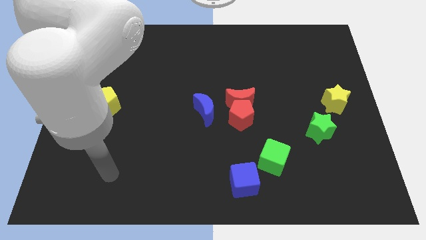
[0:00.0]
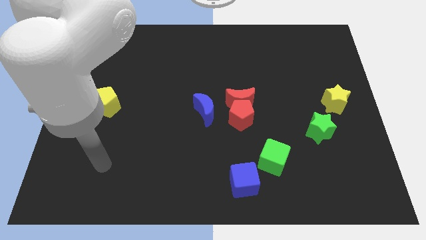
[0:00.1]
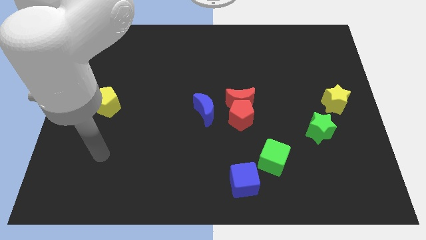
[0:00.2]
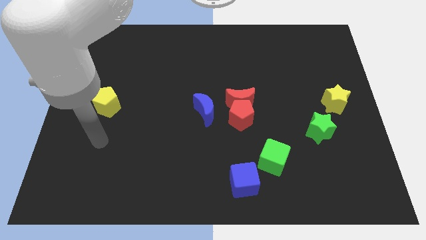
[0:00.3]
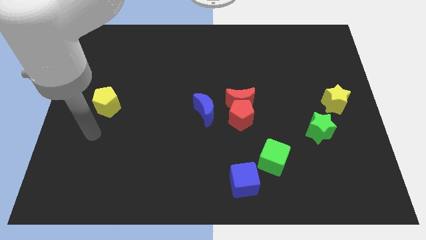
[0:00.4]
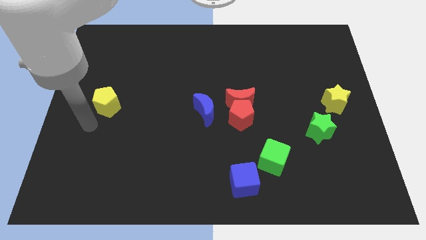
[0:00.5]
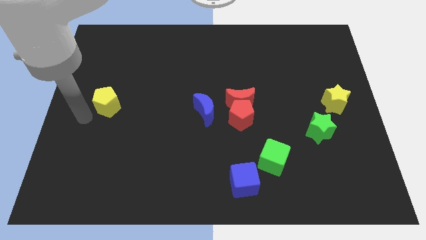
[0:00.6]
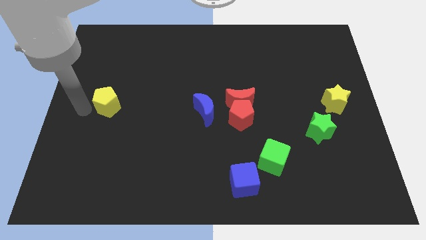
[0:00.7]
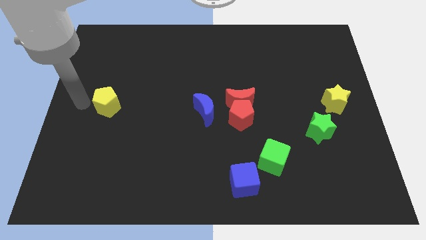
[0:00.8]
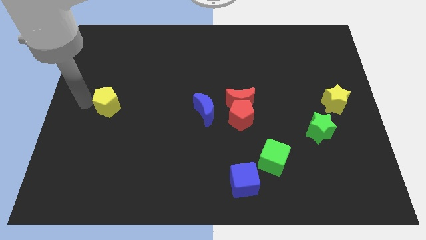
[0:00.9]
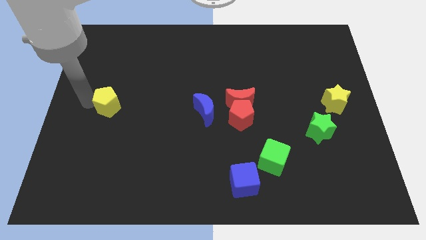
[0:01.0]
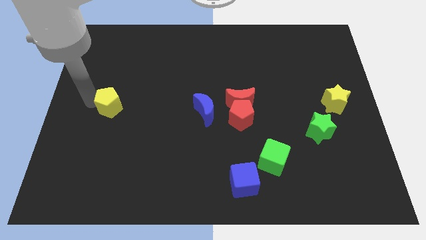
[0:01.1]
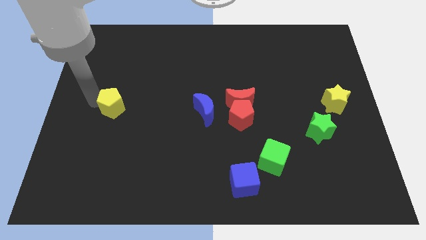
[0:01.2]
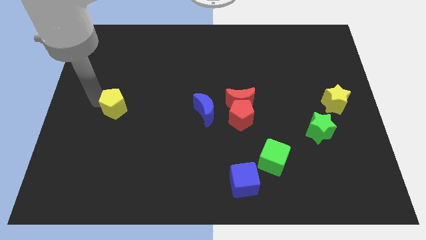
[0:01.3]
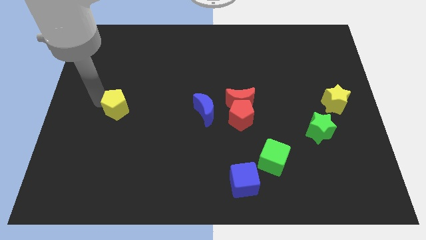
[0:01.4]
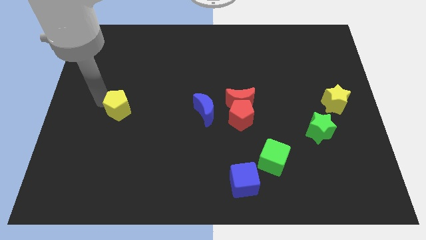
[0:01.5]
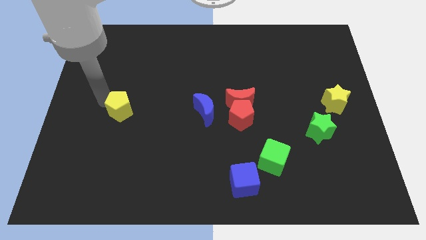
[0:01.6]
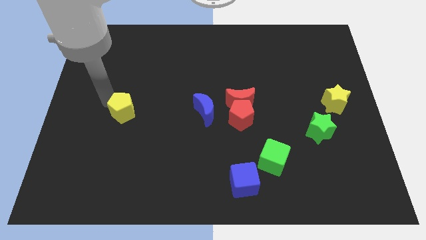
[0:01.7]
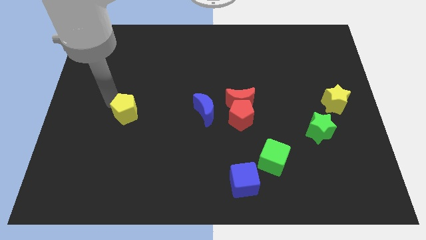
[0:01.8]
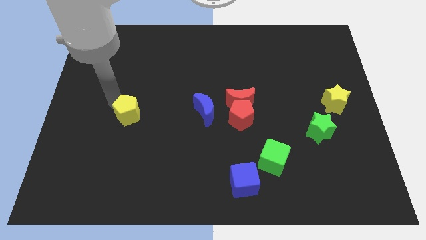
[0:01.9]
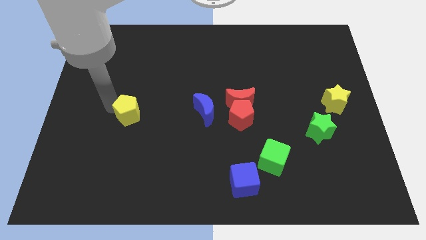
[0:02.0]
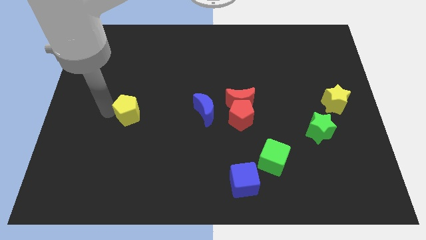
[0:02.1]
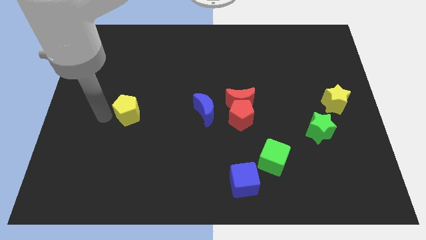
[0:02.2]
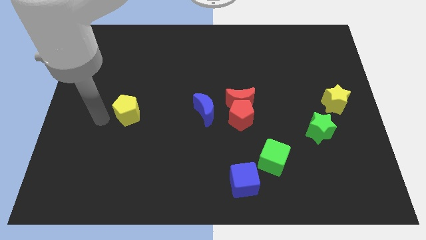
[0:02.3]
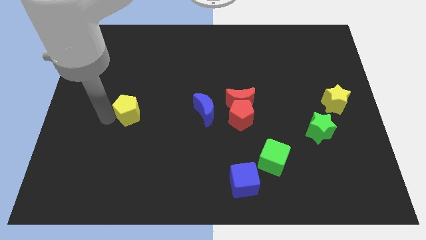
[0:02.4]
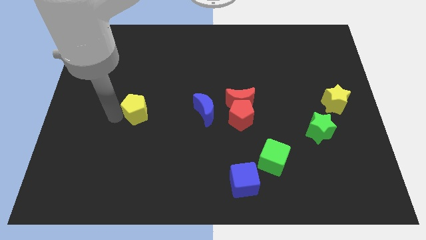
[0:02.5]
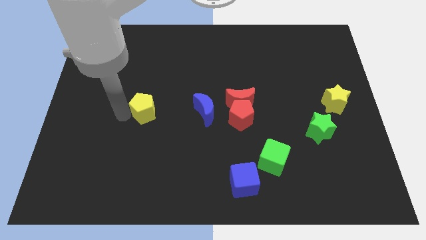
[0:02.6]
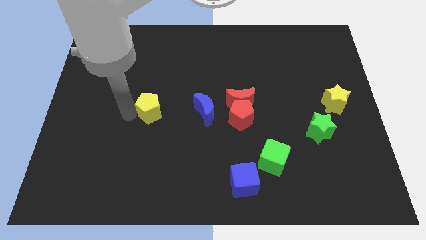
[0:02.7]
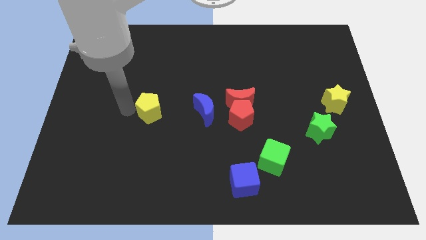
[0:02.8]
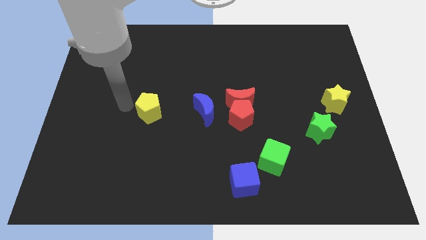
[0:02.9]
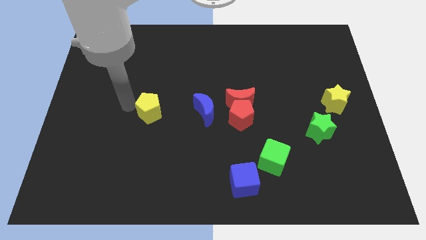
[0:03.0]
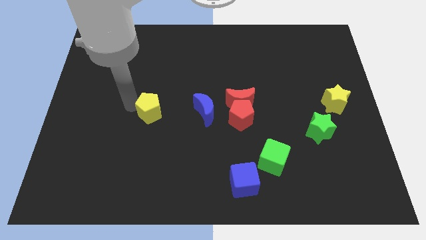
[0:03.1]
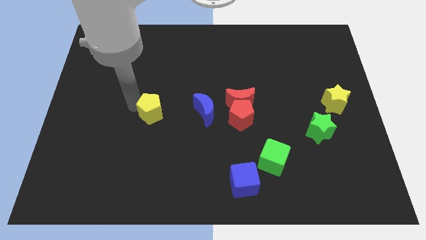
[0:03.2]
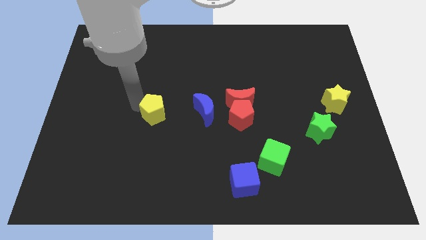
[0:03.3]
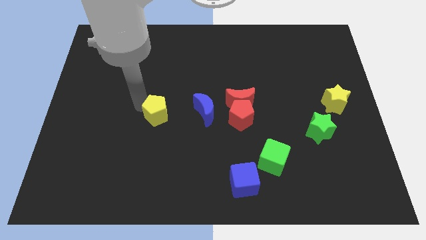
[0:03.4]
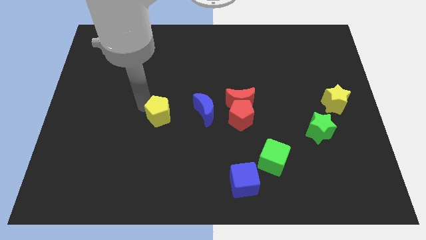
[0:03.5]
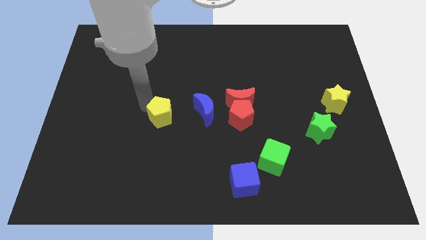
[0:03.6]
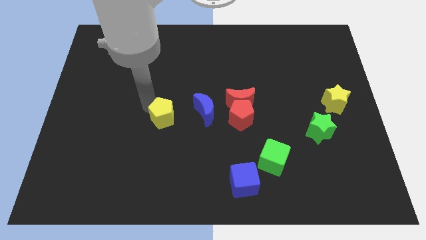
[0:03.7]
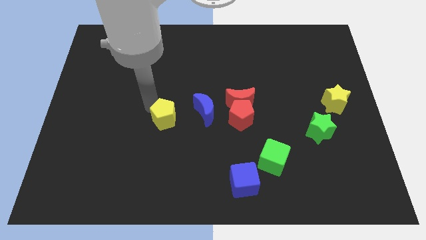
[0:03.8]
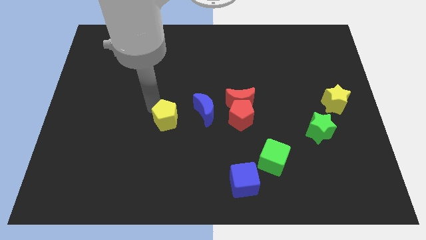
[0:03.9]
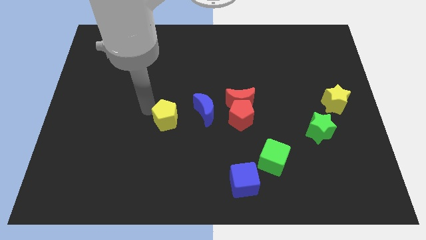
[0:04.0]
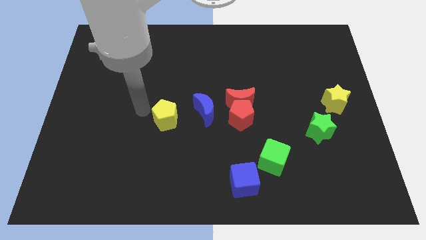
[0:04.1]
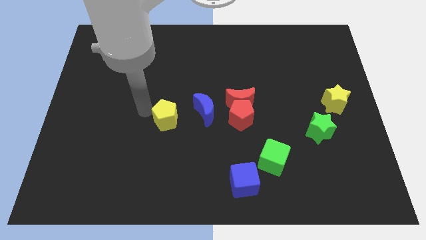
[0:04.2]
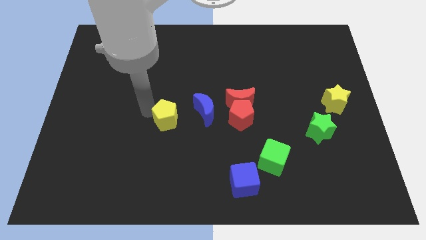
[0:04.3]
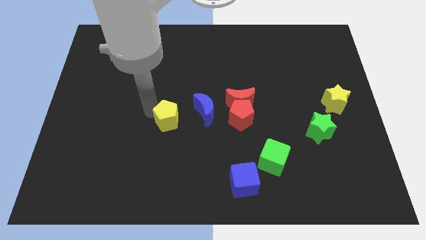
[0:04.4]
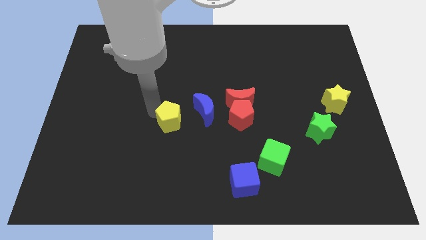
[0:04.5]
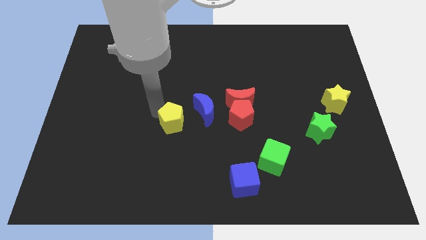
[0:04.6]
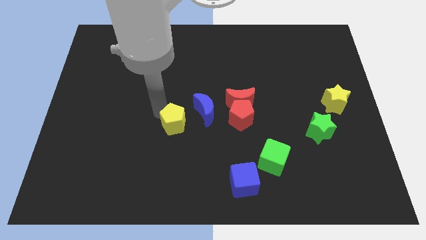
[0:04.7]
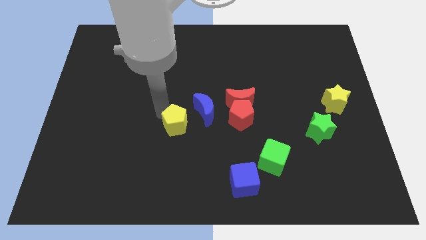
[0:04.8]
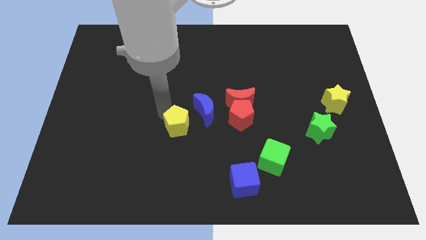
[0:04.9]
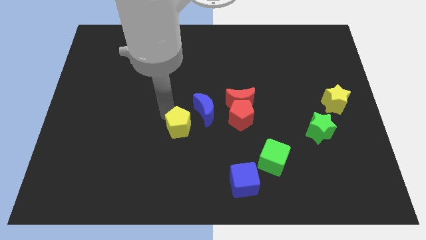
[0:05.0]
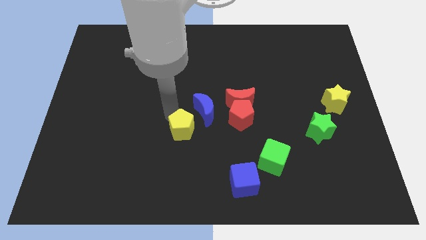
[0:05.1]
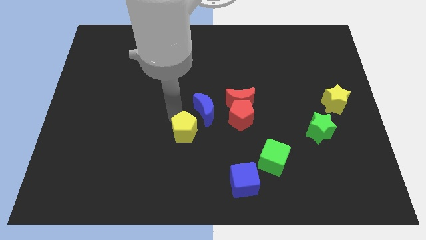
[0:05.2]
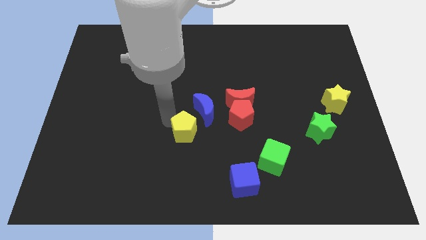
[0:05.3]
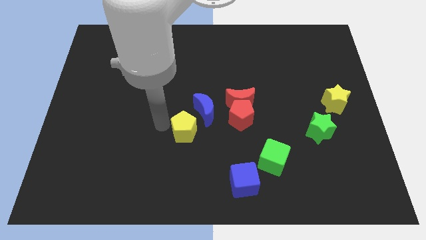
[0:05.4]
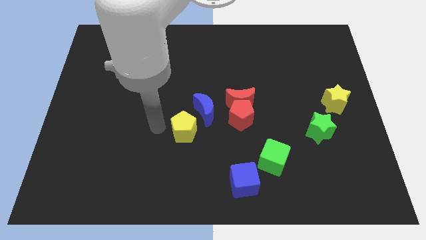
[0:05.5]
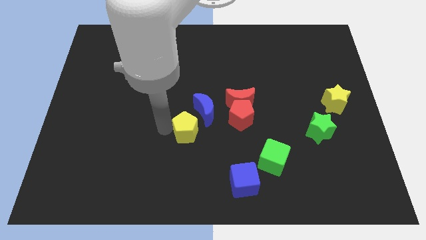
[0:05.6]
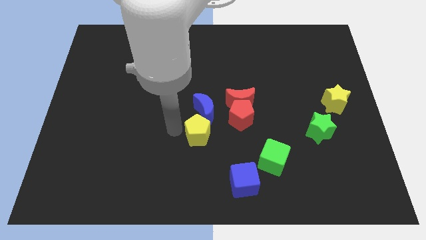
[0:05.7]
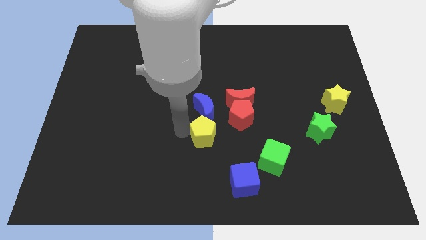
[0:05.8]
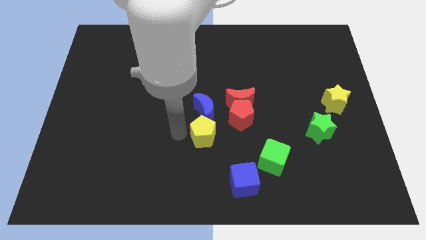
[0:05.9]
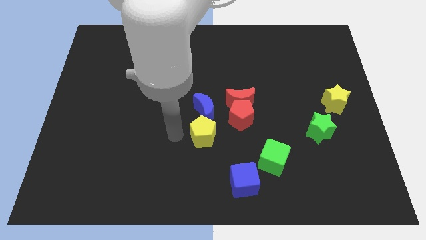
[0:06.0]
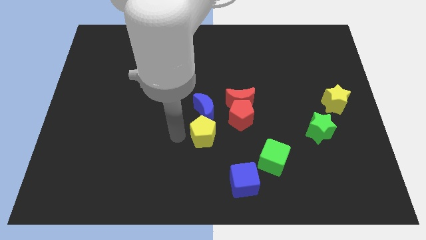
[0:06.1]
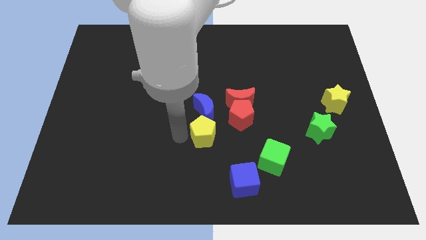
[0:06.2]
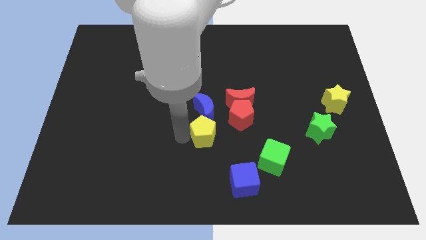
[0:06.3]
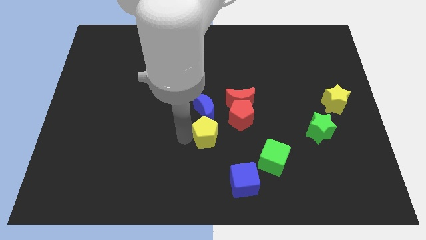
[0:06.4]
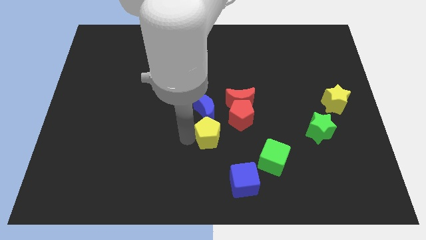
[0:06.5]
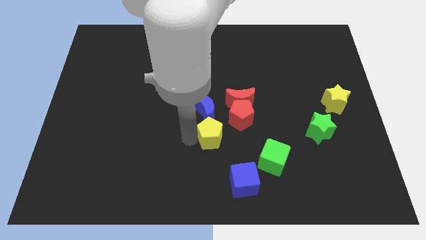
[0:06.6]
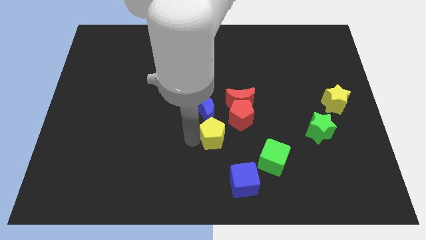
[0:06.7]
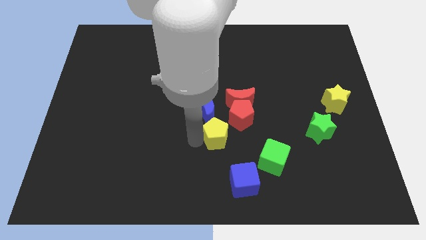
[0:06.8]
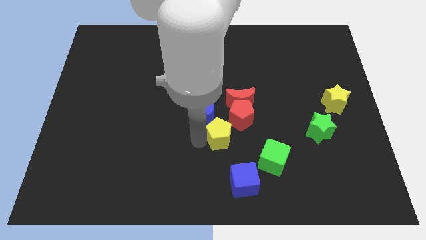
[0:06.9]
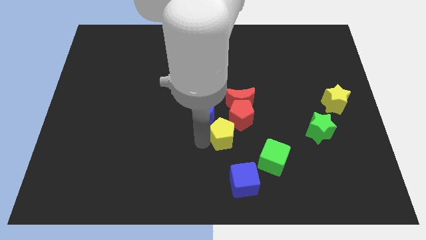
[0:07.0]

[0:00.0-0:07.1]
move the yellow pentagon diagonally up and to the left of the green cube
